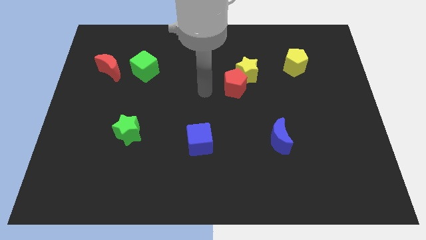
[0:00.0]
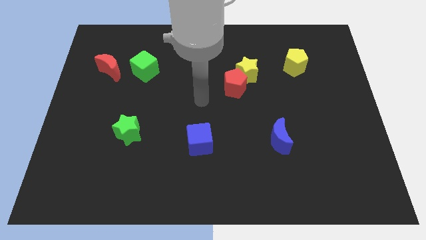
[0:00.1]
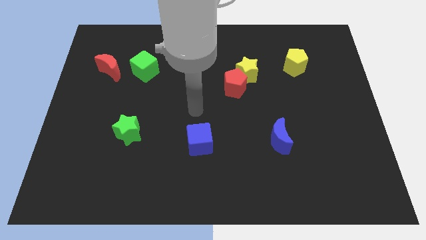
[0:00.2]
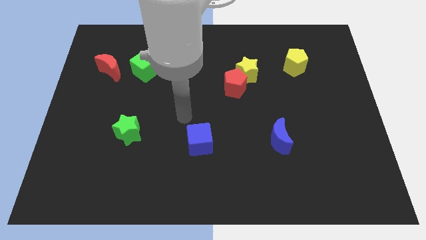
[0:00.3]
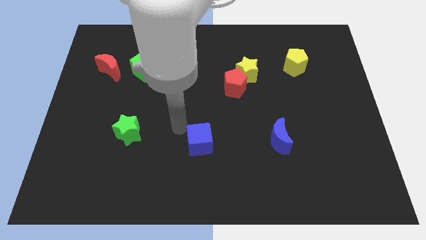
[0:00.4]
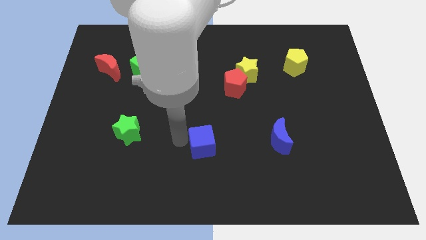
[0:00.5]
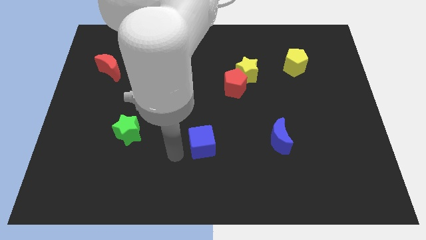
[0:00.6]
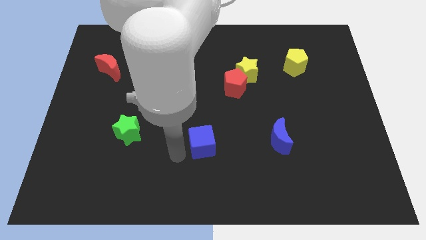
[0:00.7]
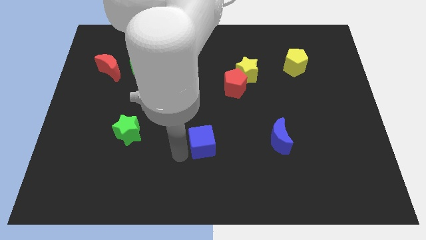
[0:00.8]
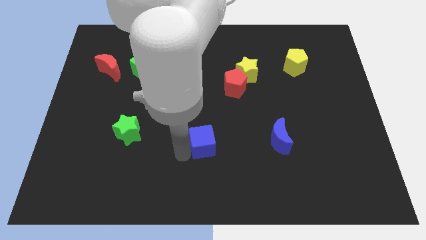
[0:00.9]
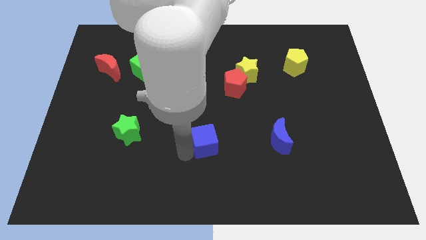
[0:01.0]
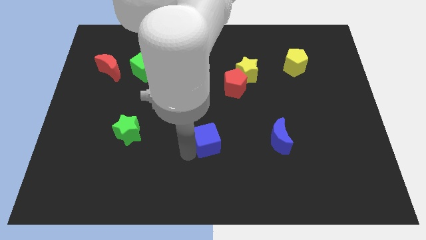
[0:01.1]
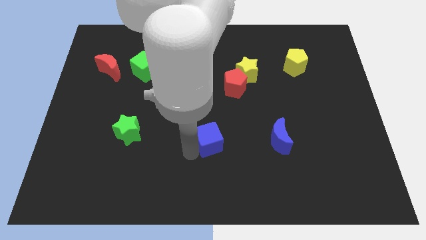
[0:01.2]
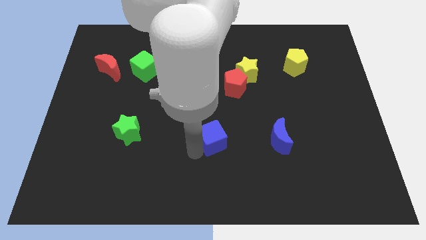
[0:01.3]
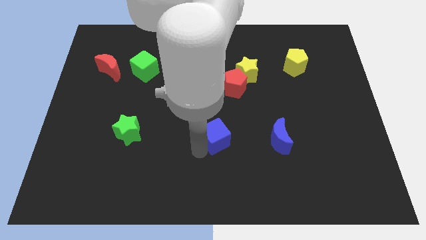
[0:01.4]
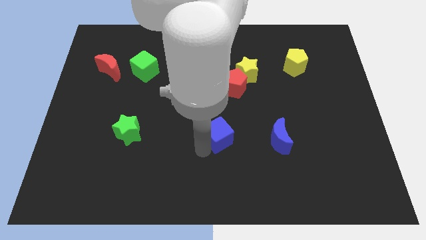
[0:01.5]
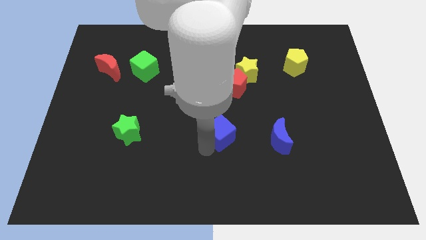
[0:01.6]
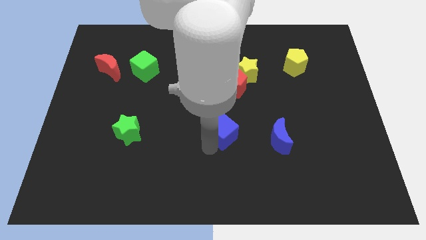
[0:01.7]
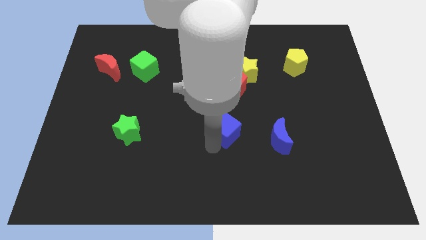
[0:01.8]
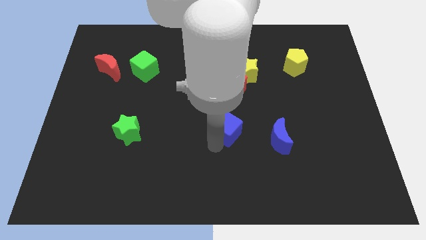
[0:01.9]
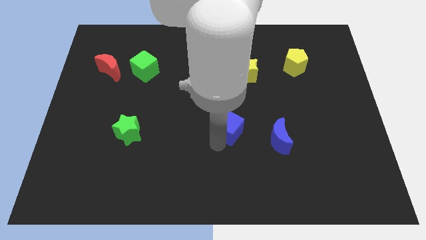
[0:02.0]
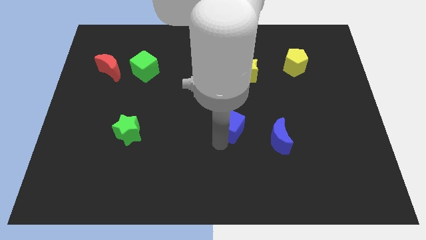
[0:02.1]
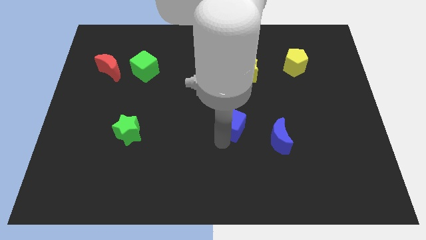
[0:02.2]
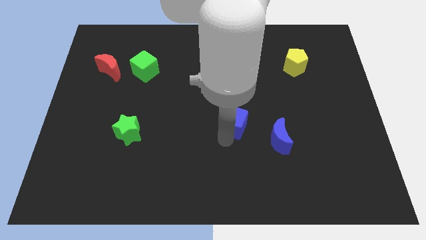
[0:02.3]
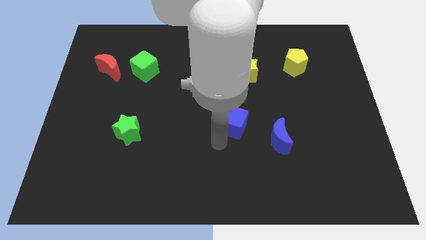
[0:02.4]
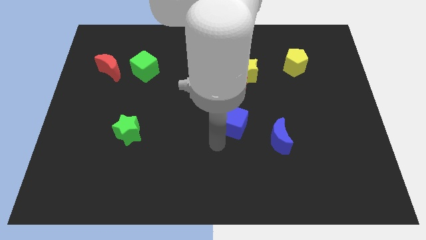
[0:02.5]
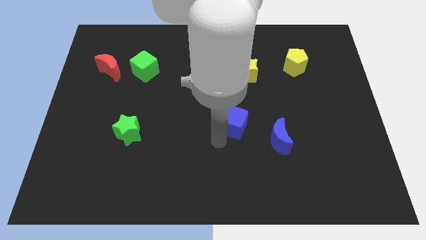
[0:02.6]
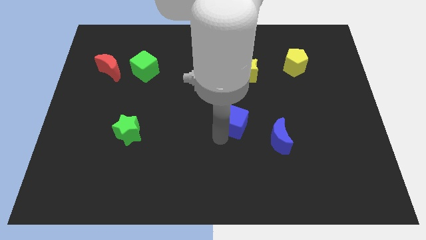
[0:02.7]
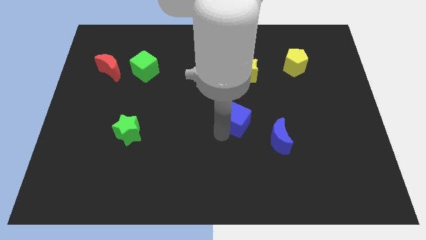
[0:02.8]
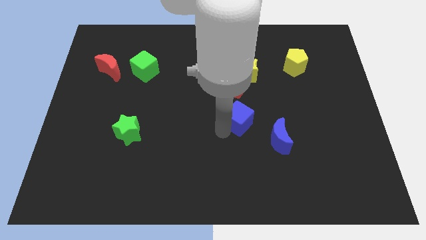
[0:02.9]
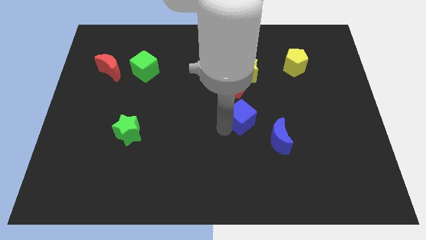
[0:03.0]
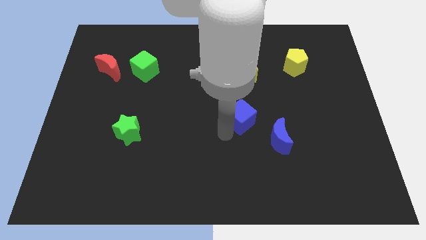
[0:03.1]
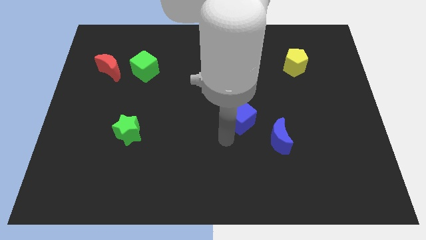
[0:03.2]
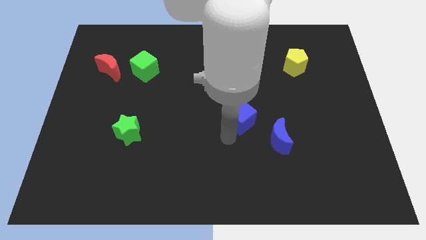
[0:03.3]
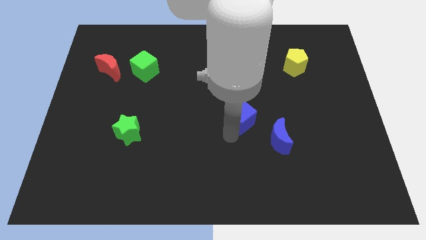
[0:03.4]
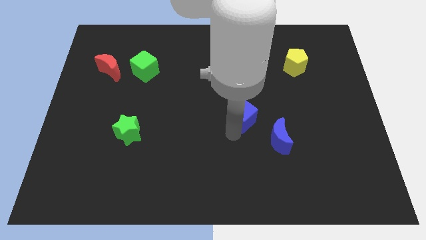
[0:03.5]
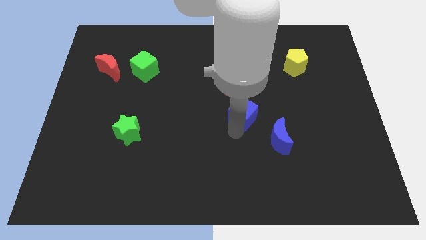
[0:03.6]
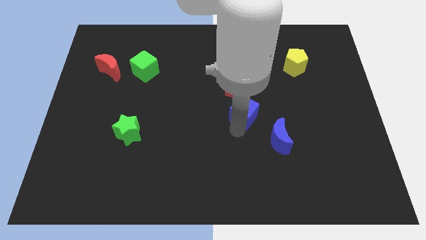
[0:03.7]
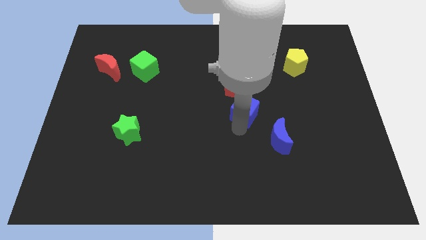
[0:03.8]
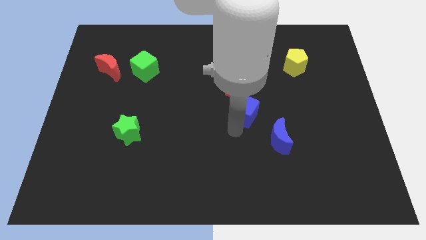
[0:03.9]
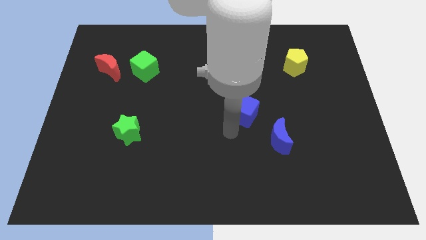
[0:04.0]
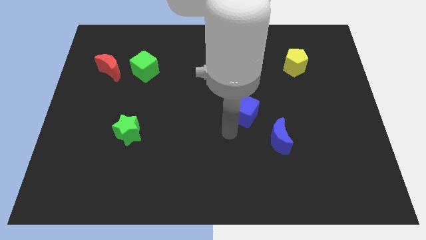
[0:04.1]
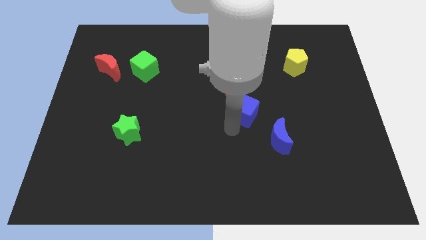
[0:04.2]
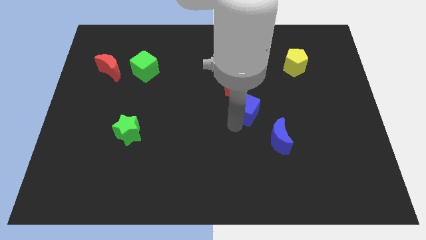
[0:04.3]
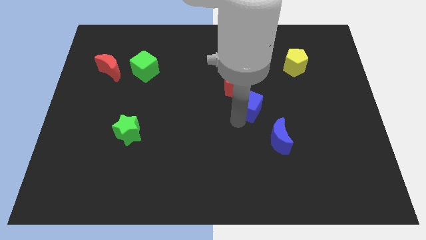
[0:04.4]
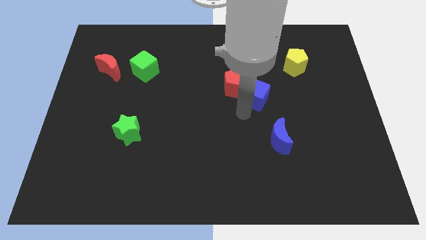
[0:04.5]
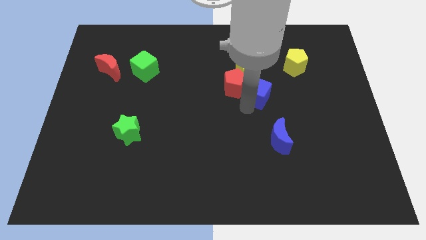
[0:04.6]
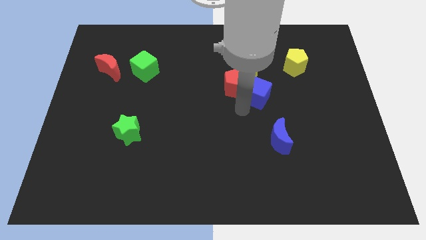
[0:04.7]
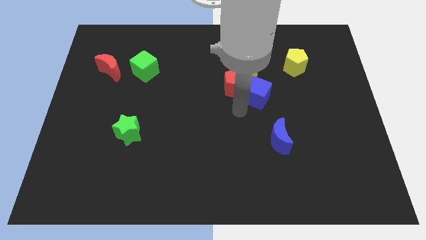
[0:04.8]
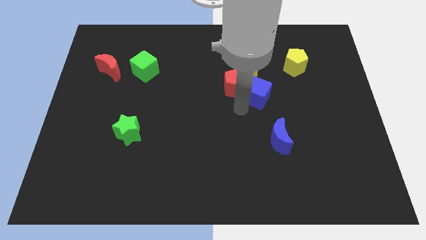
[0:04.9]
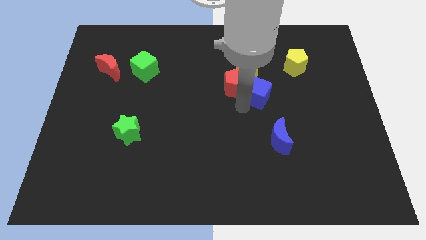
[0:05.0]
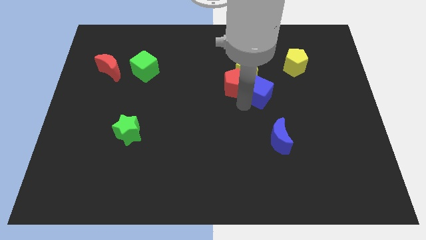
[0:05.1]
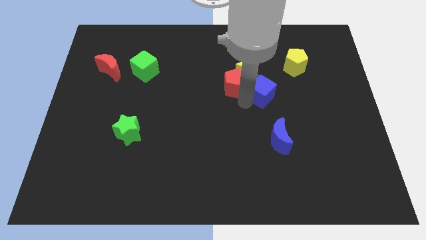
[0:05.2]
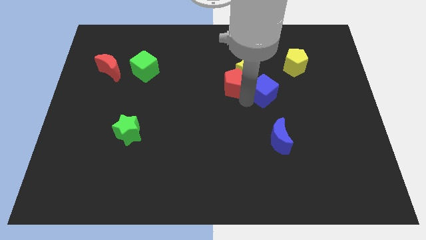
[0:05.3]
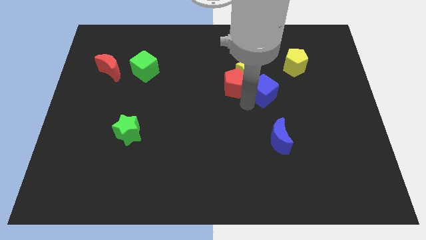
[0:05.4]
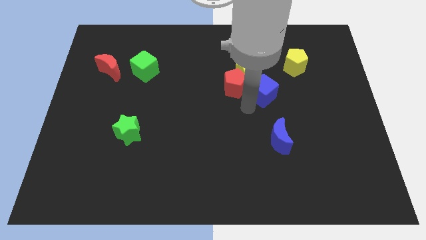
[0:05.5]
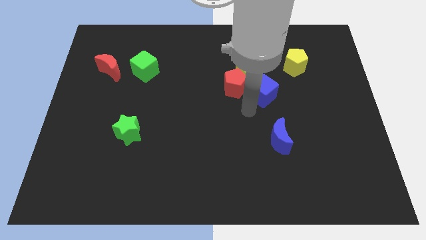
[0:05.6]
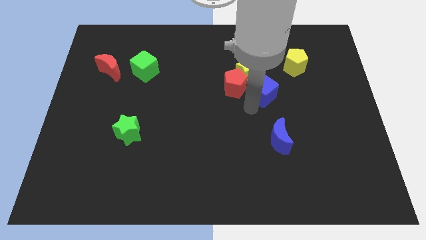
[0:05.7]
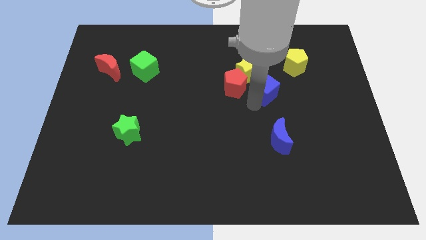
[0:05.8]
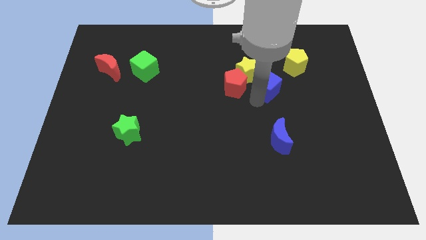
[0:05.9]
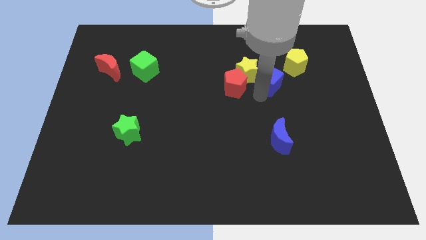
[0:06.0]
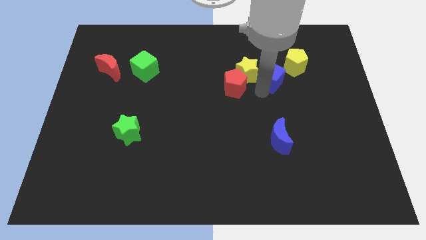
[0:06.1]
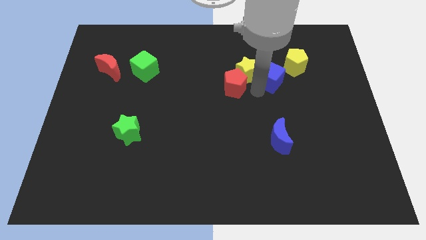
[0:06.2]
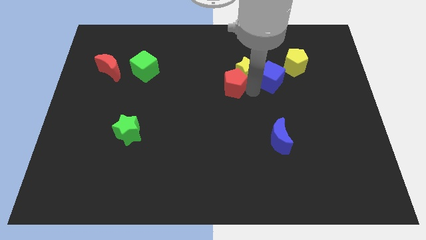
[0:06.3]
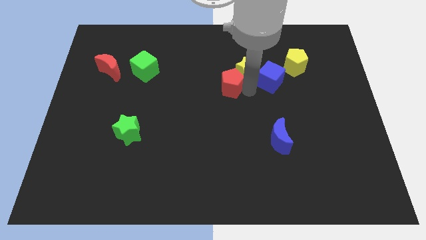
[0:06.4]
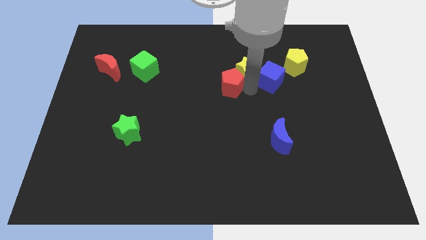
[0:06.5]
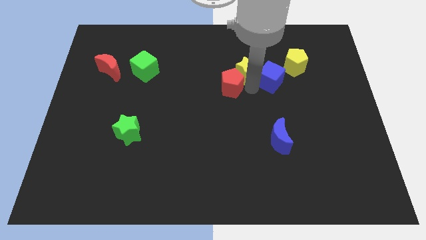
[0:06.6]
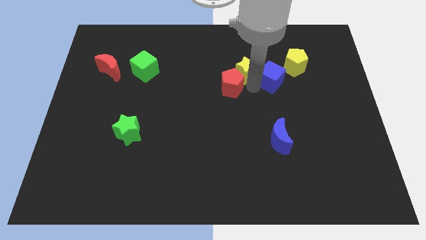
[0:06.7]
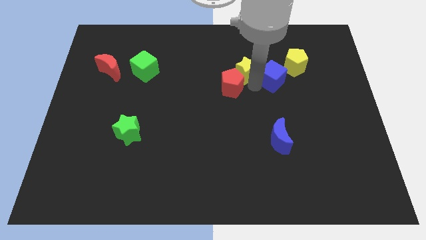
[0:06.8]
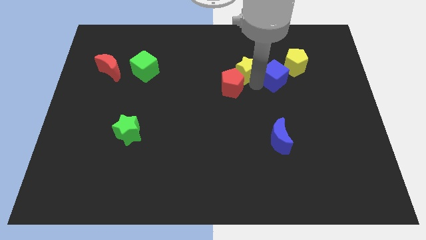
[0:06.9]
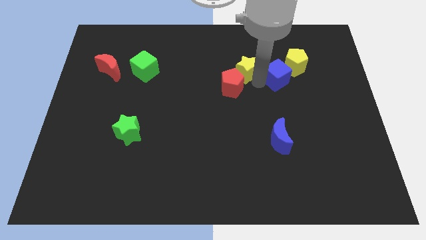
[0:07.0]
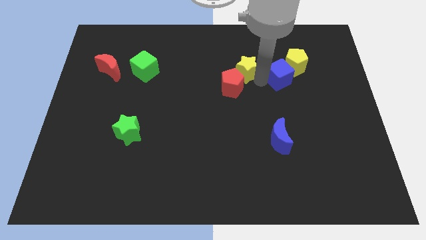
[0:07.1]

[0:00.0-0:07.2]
put the blue cube to the yellow pentagon

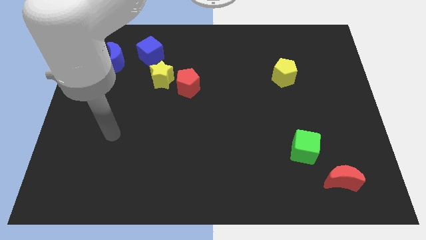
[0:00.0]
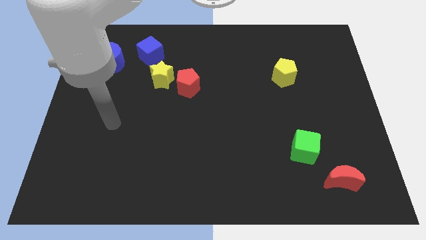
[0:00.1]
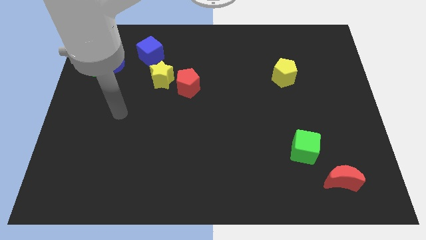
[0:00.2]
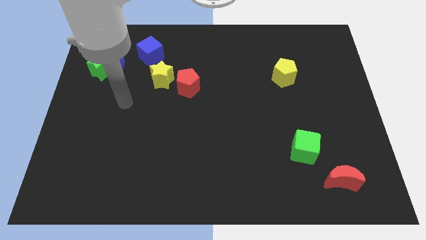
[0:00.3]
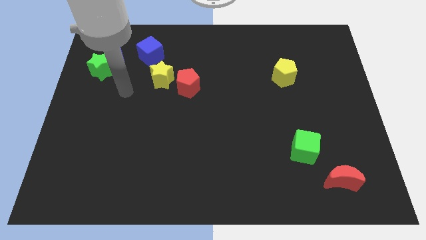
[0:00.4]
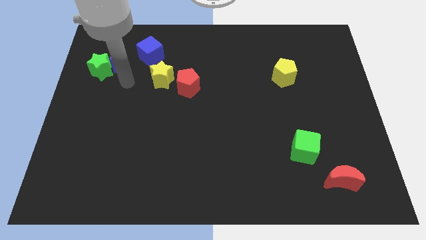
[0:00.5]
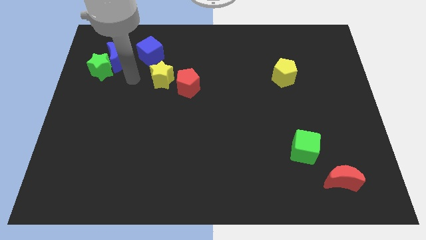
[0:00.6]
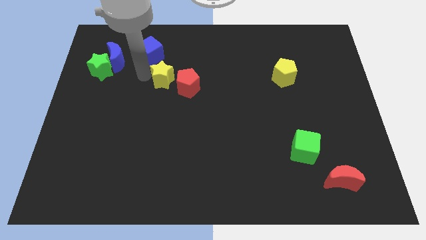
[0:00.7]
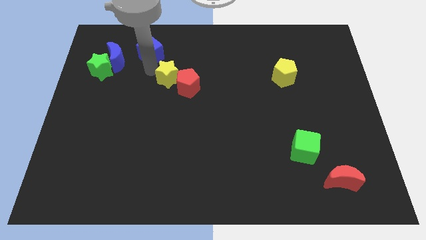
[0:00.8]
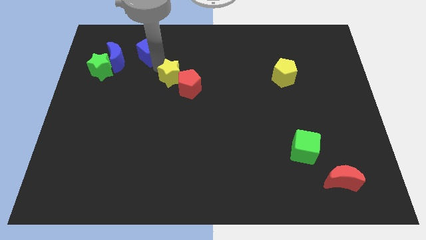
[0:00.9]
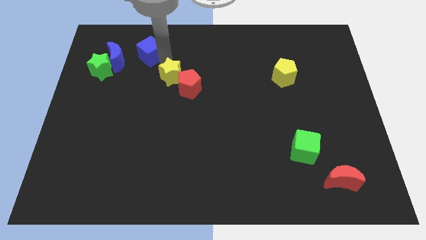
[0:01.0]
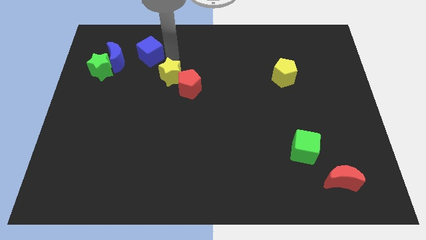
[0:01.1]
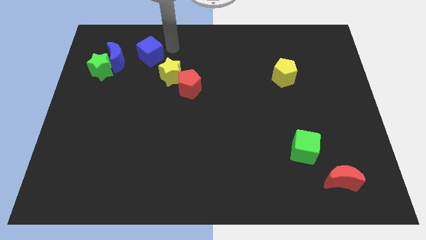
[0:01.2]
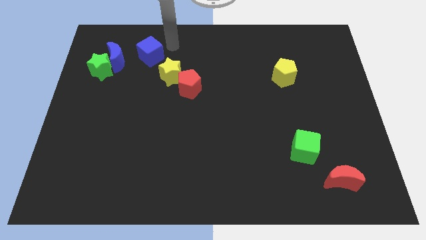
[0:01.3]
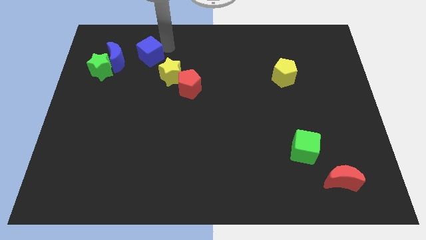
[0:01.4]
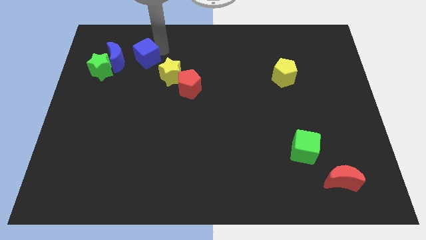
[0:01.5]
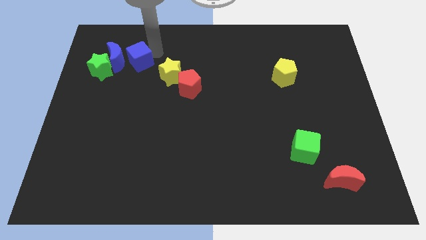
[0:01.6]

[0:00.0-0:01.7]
push the blue cube to the blue moon
